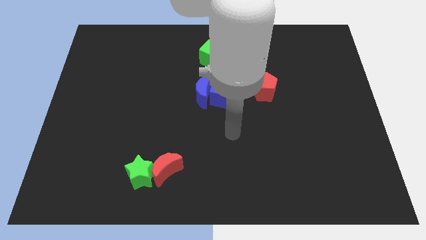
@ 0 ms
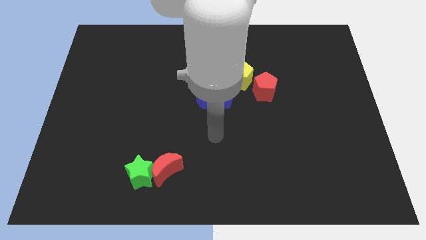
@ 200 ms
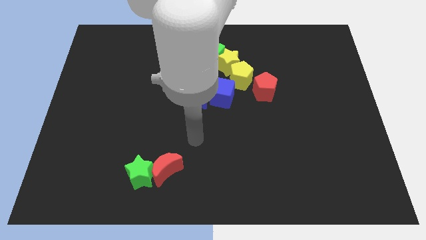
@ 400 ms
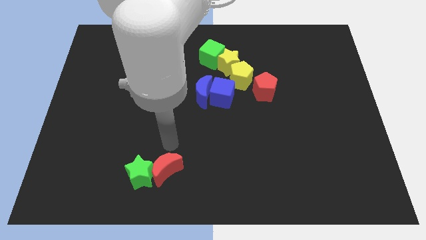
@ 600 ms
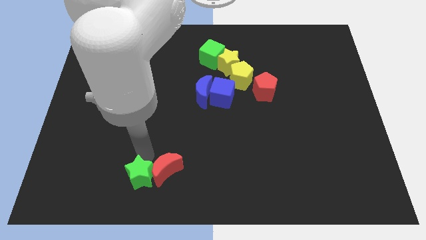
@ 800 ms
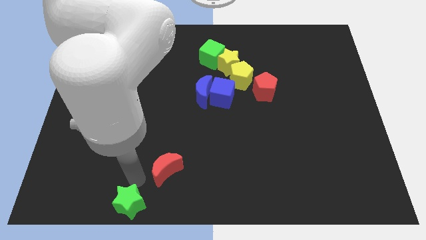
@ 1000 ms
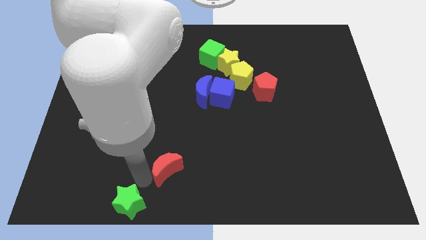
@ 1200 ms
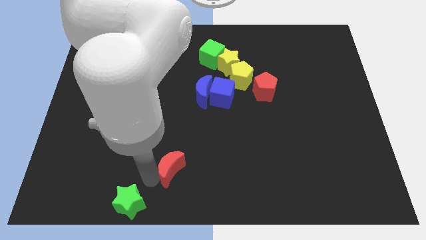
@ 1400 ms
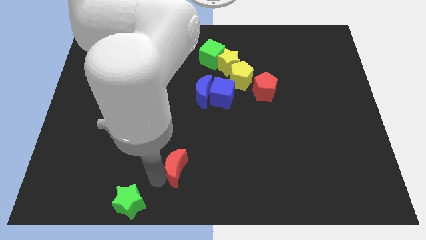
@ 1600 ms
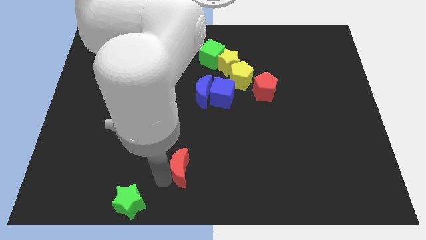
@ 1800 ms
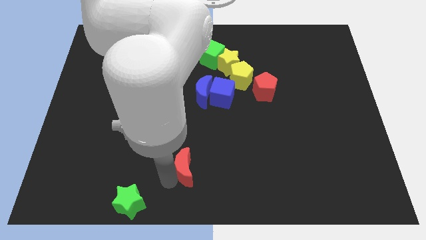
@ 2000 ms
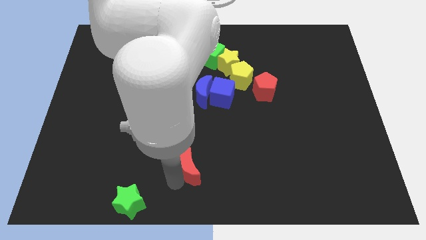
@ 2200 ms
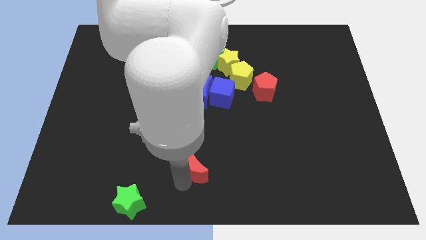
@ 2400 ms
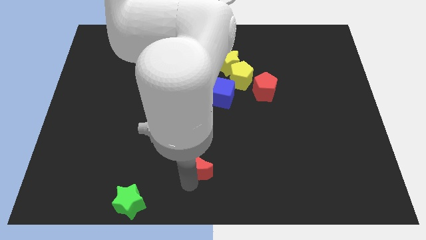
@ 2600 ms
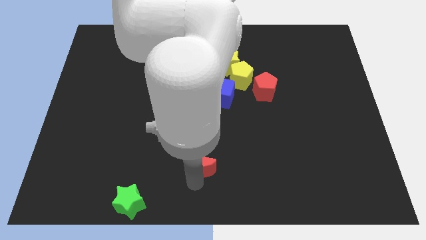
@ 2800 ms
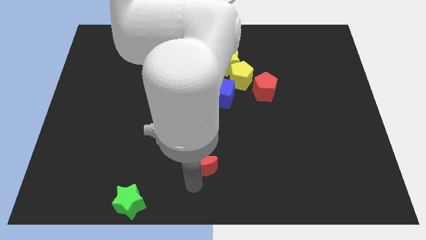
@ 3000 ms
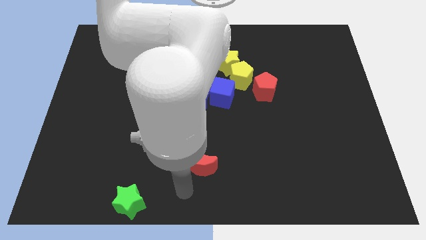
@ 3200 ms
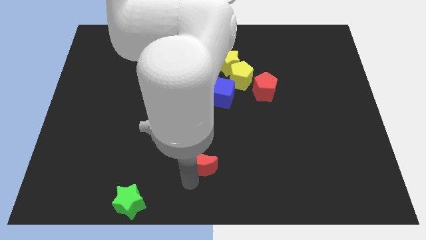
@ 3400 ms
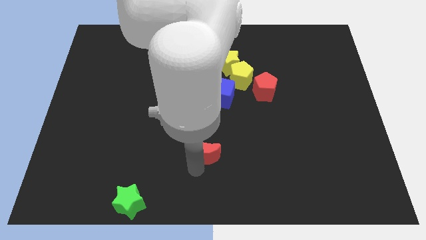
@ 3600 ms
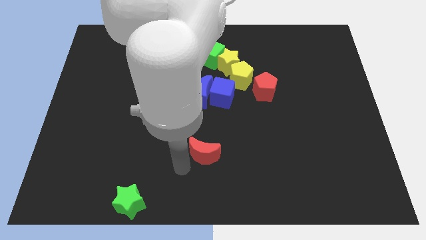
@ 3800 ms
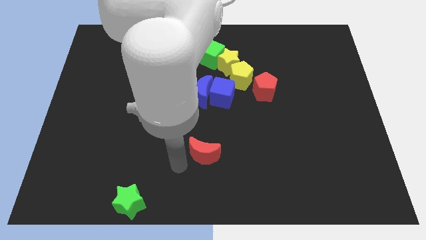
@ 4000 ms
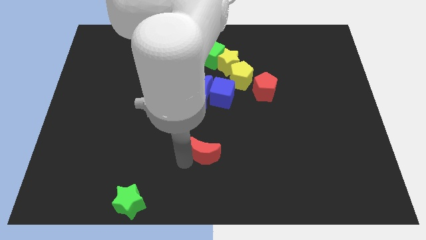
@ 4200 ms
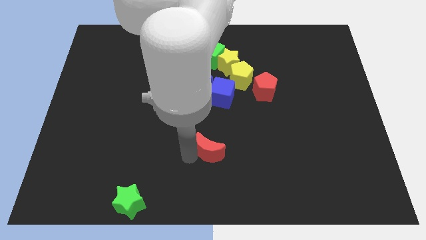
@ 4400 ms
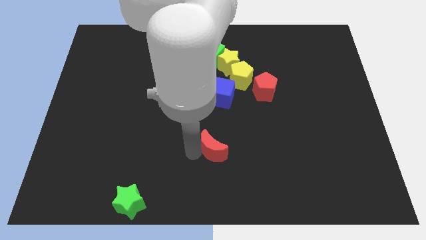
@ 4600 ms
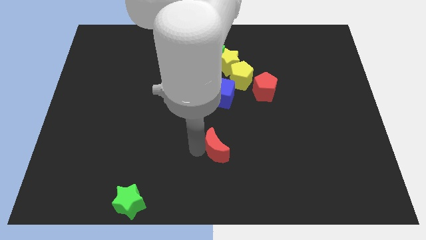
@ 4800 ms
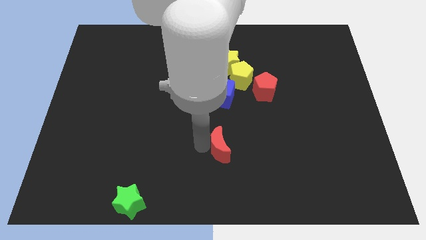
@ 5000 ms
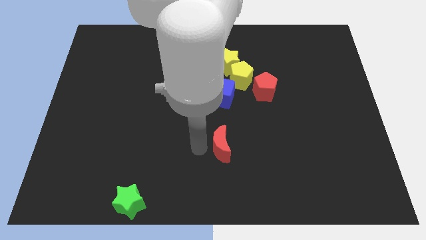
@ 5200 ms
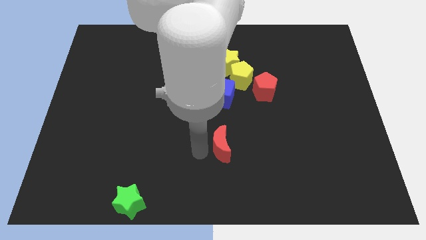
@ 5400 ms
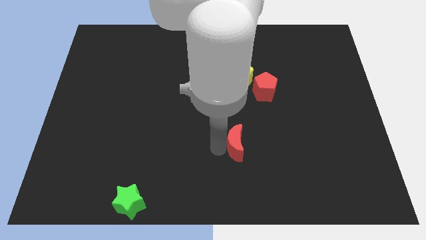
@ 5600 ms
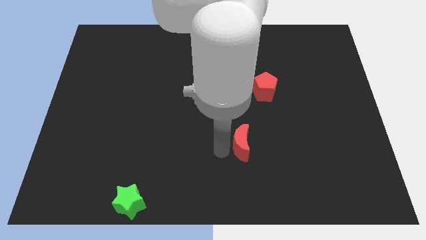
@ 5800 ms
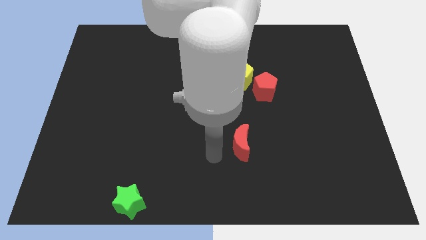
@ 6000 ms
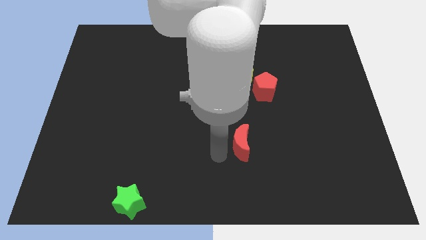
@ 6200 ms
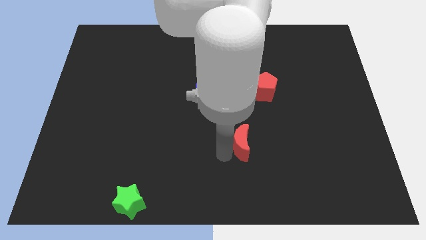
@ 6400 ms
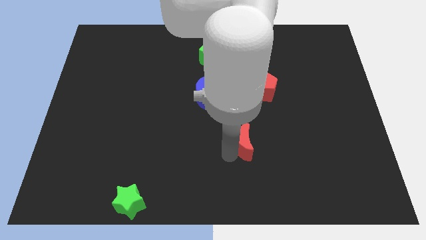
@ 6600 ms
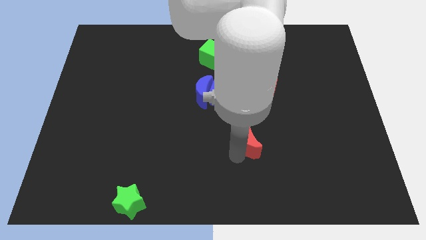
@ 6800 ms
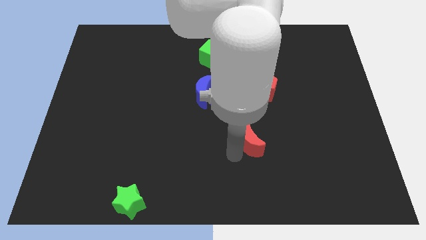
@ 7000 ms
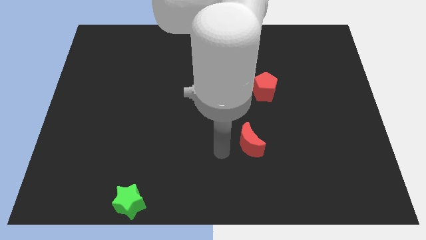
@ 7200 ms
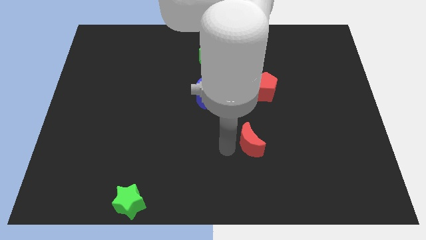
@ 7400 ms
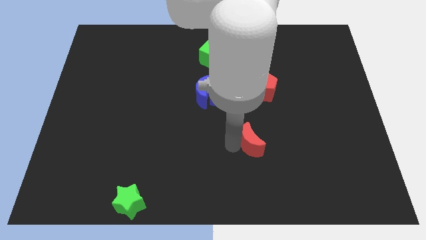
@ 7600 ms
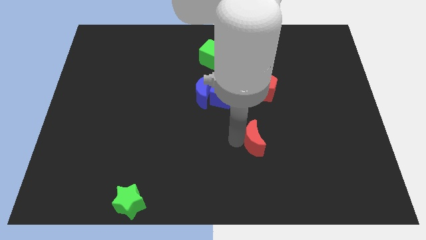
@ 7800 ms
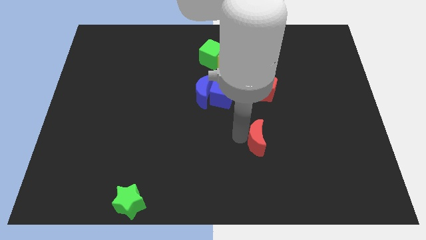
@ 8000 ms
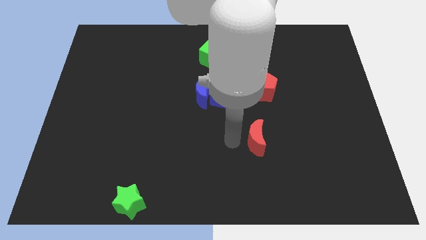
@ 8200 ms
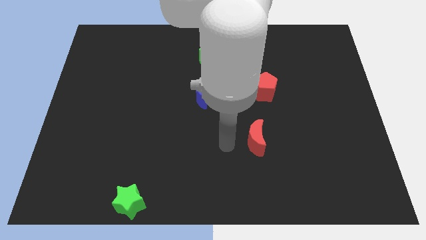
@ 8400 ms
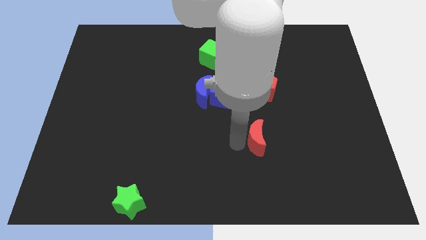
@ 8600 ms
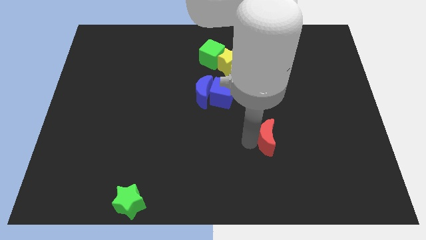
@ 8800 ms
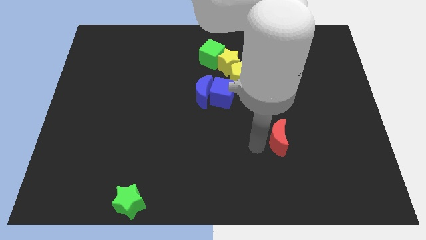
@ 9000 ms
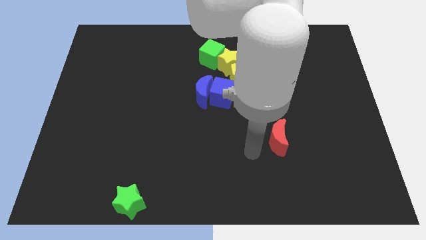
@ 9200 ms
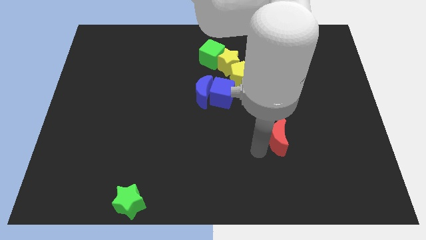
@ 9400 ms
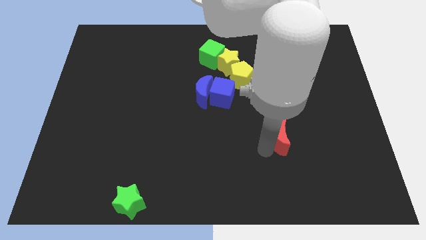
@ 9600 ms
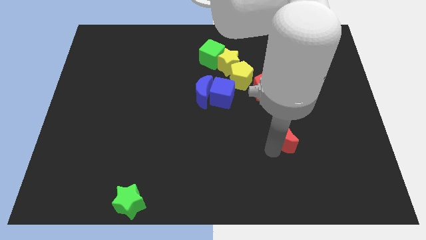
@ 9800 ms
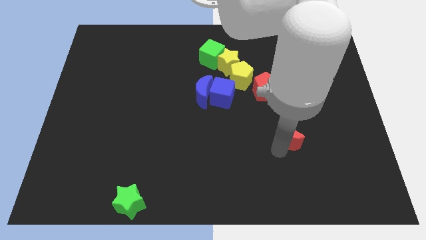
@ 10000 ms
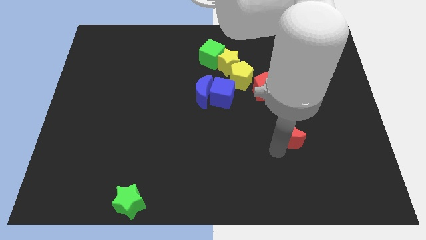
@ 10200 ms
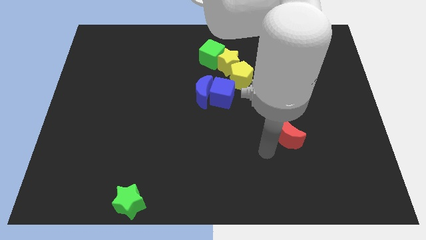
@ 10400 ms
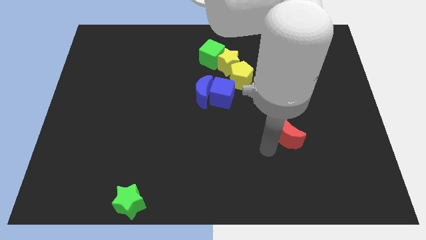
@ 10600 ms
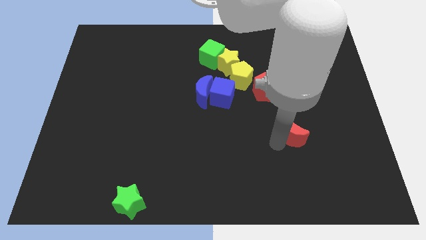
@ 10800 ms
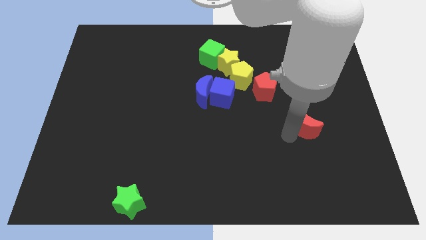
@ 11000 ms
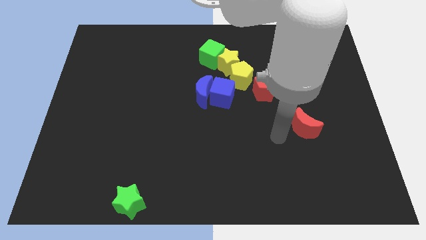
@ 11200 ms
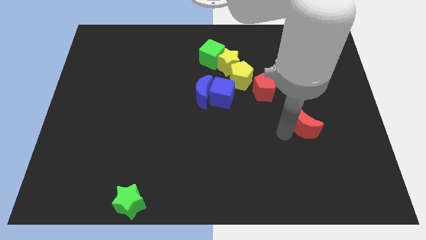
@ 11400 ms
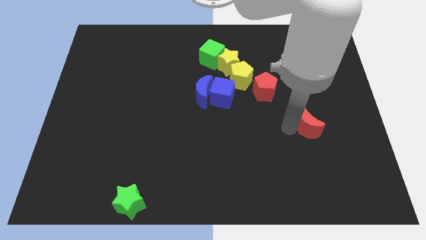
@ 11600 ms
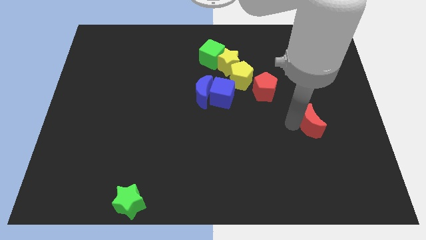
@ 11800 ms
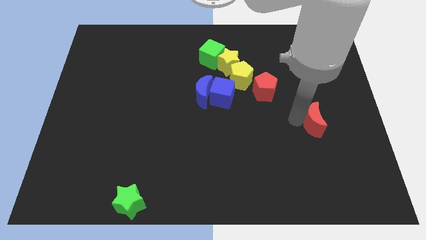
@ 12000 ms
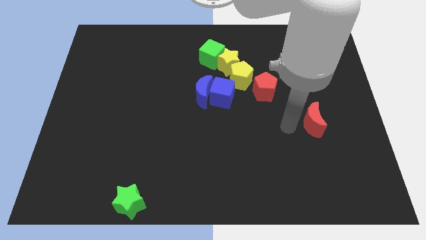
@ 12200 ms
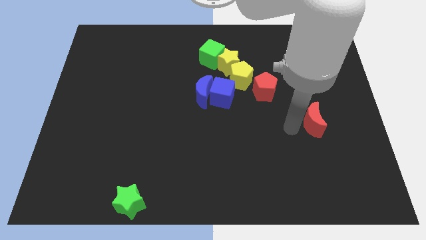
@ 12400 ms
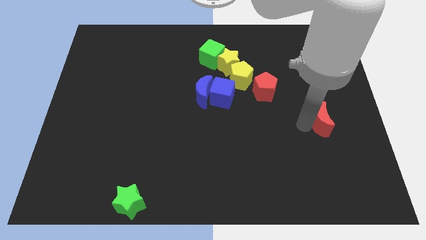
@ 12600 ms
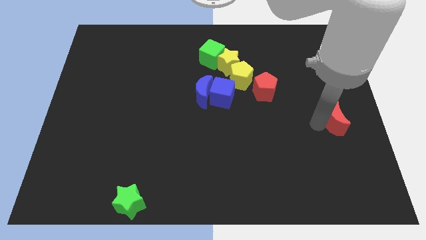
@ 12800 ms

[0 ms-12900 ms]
put the red moon to the right side
